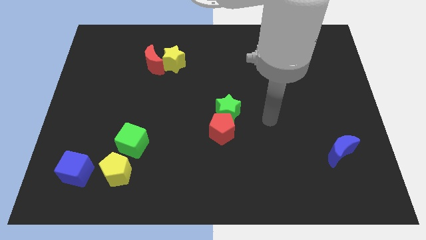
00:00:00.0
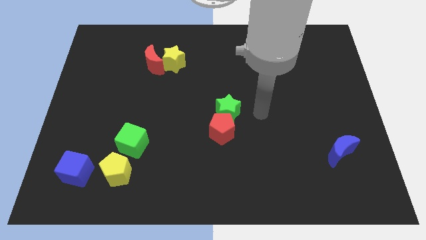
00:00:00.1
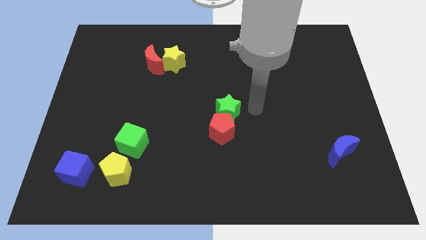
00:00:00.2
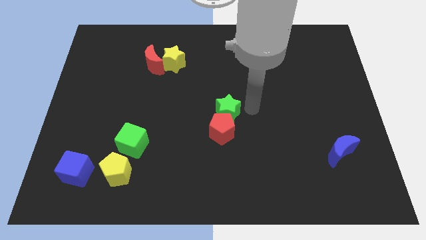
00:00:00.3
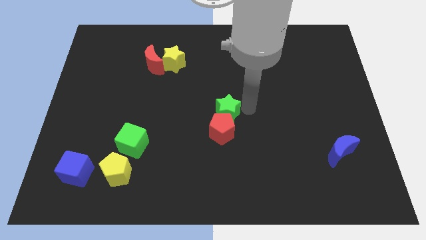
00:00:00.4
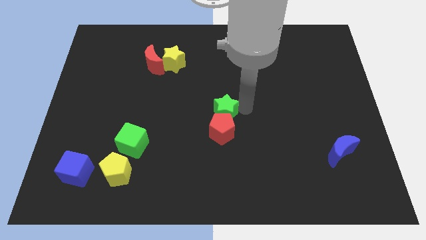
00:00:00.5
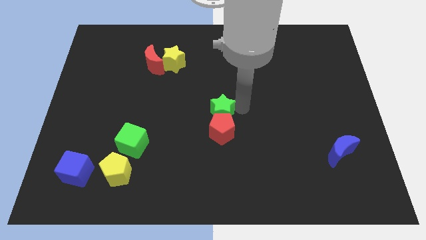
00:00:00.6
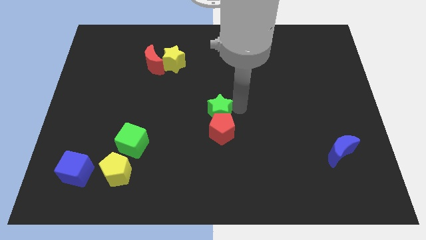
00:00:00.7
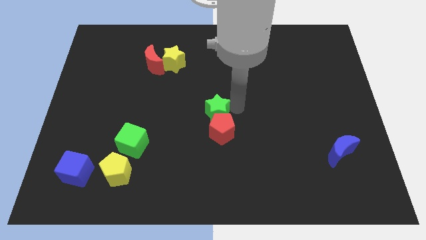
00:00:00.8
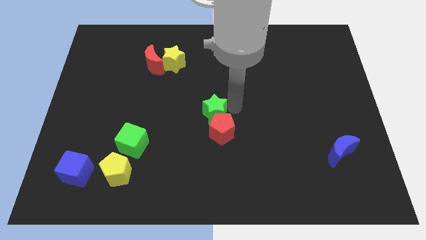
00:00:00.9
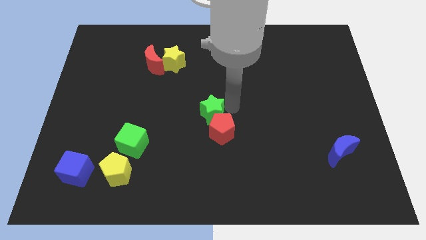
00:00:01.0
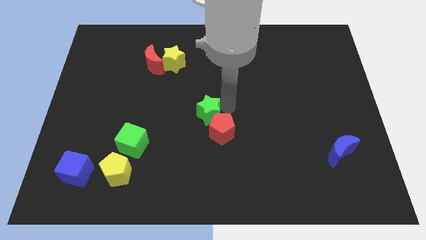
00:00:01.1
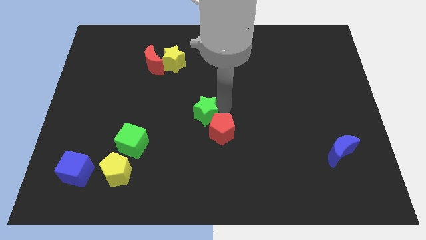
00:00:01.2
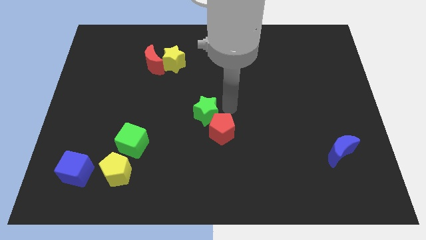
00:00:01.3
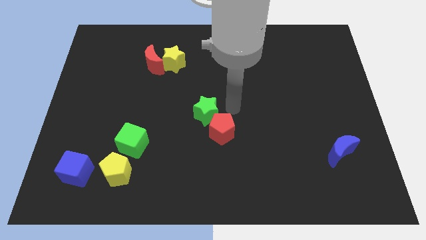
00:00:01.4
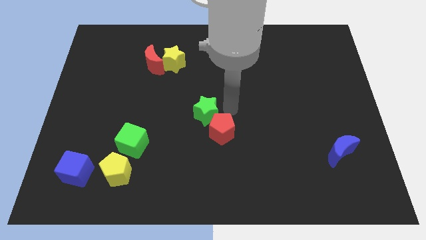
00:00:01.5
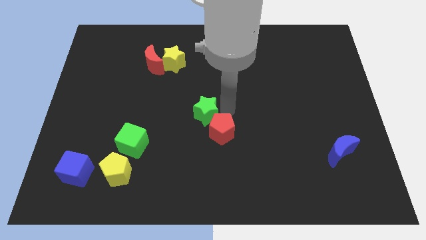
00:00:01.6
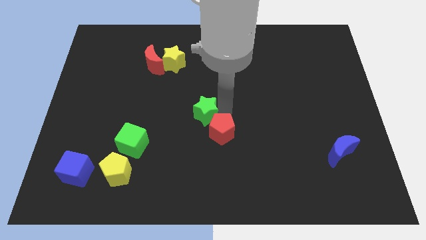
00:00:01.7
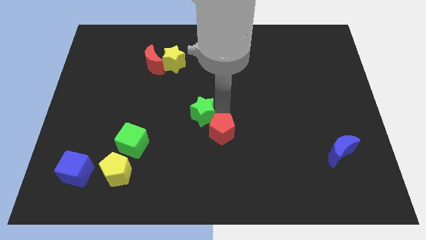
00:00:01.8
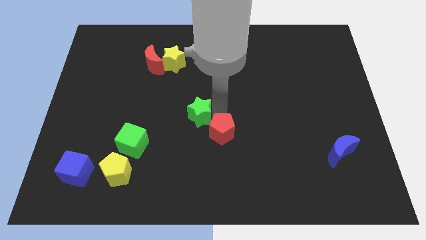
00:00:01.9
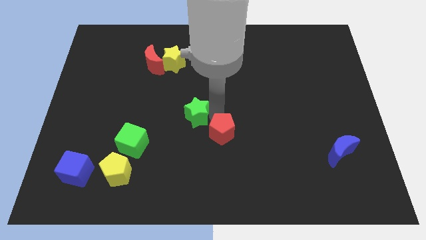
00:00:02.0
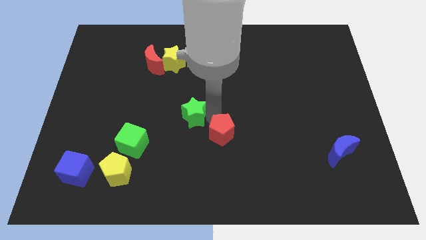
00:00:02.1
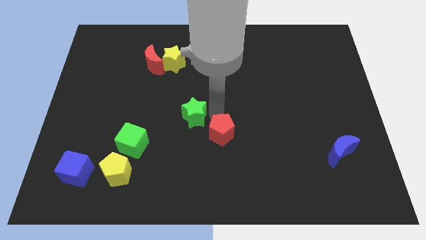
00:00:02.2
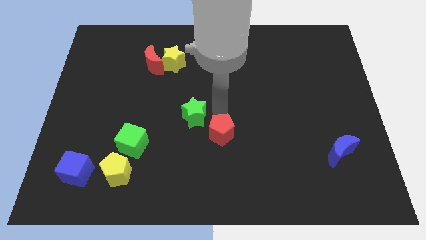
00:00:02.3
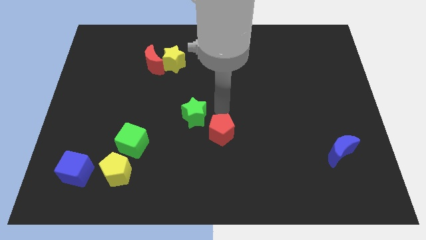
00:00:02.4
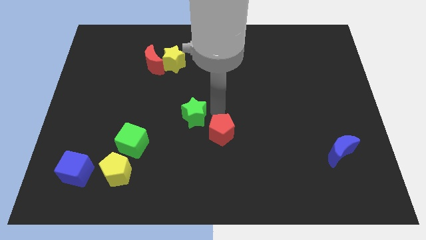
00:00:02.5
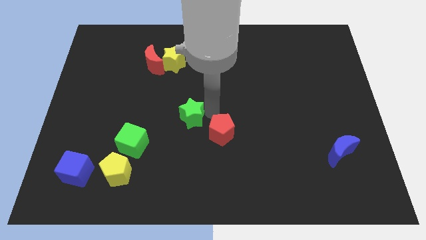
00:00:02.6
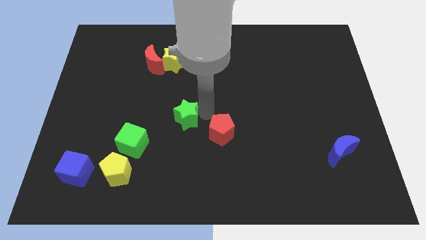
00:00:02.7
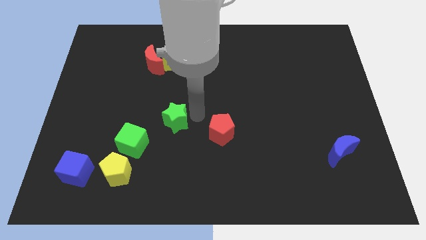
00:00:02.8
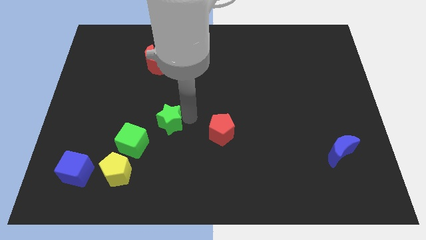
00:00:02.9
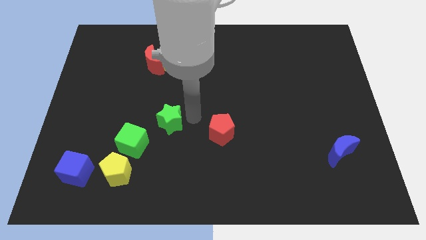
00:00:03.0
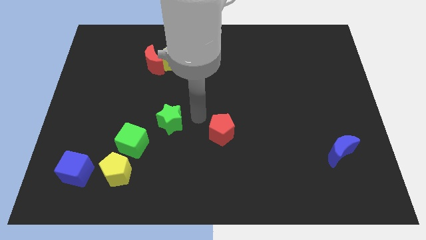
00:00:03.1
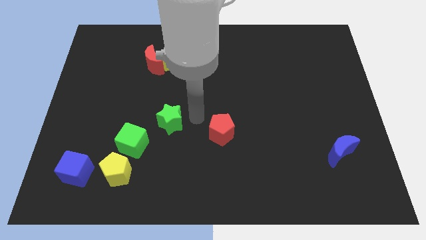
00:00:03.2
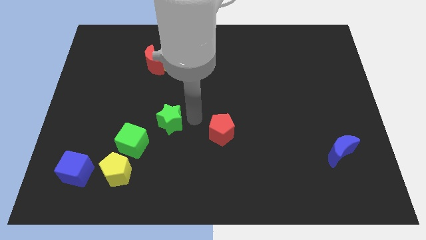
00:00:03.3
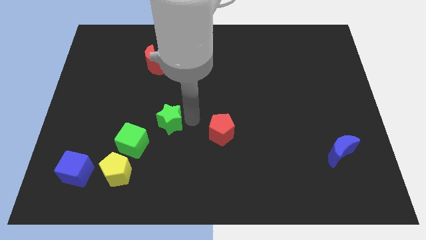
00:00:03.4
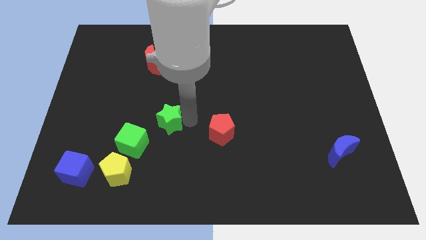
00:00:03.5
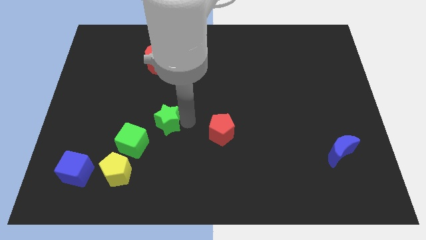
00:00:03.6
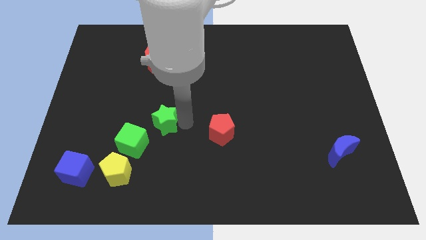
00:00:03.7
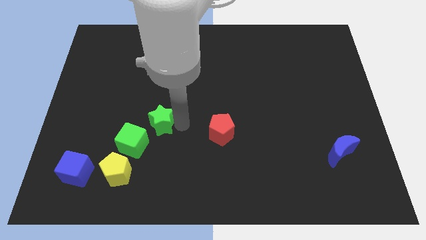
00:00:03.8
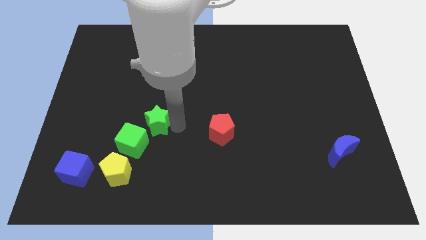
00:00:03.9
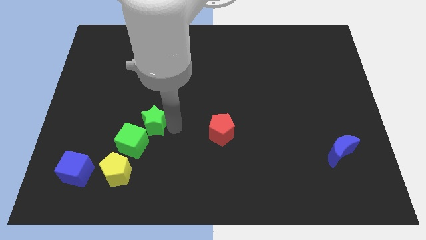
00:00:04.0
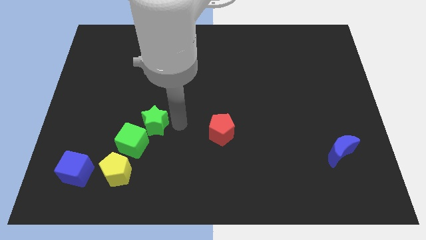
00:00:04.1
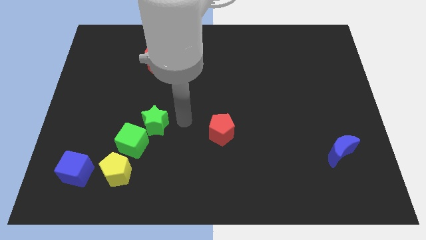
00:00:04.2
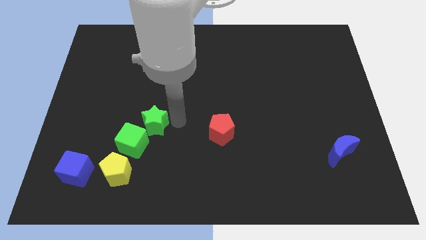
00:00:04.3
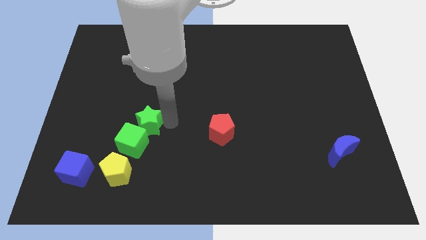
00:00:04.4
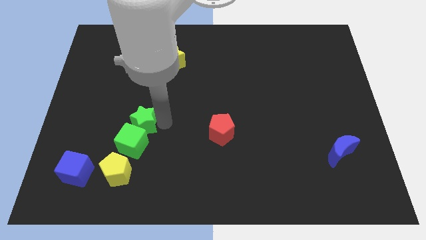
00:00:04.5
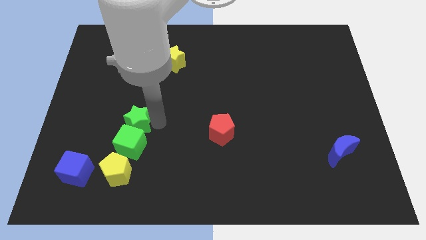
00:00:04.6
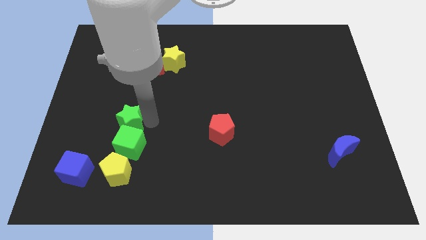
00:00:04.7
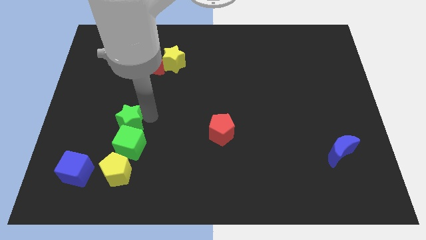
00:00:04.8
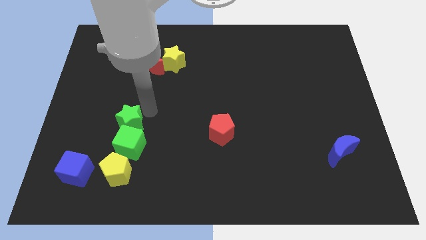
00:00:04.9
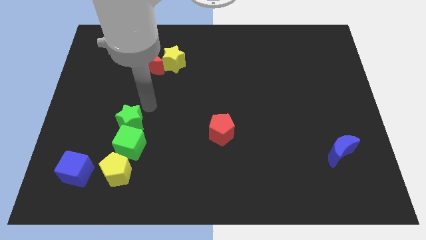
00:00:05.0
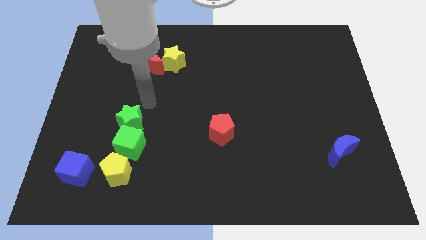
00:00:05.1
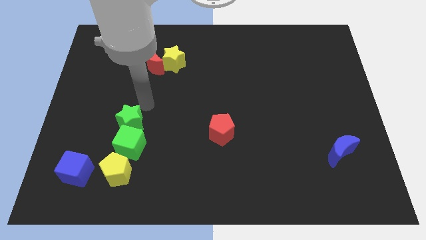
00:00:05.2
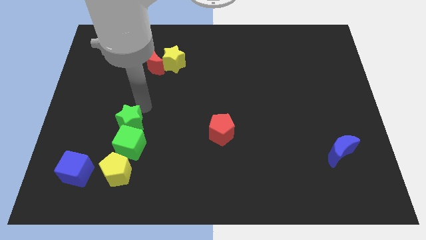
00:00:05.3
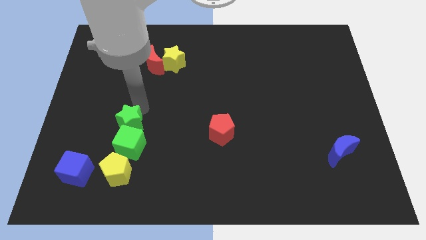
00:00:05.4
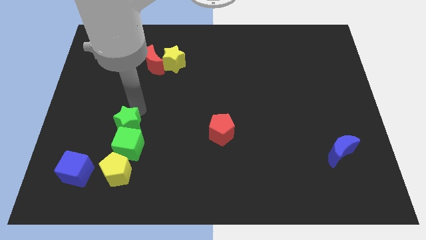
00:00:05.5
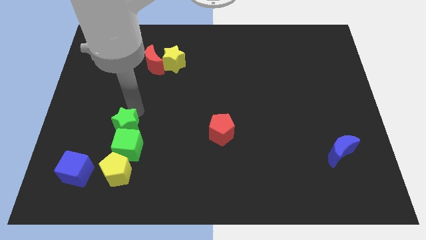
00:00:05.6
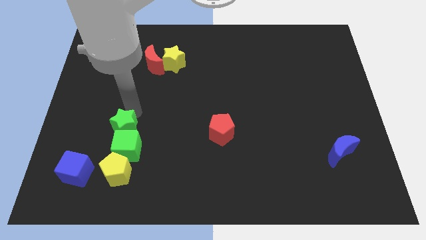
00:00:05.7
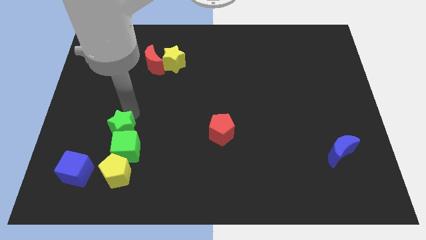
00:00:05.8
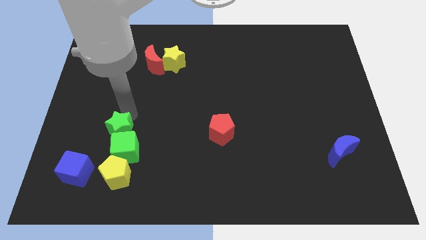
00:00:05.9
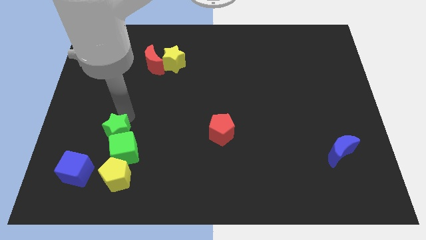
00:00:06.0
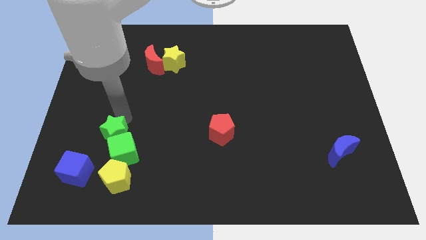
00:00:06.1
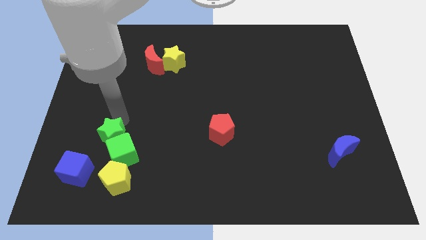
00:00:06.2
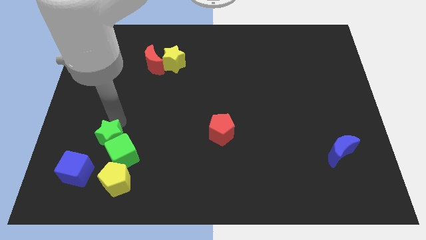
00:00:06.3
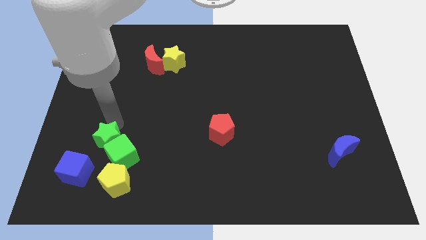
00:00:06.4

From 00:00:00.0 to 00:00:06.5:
move the green star diagonally up and to the left of the yellow pentagon
